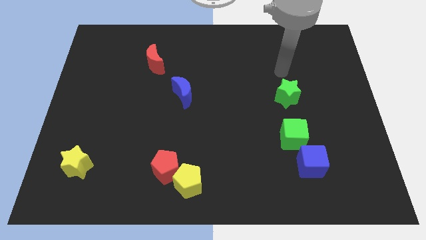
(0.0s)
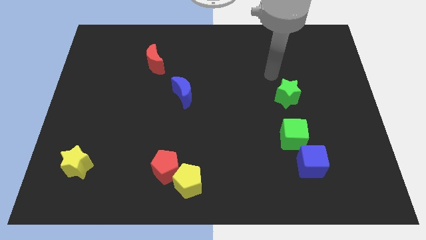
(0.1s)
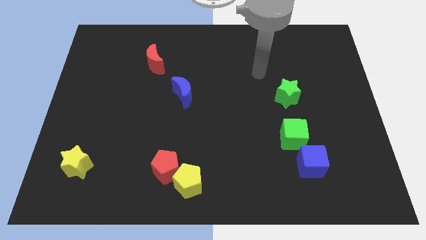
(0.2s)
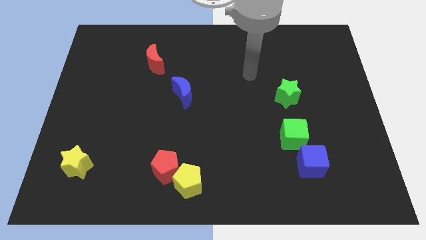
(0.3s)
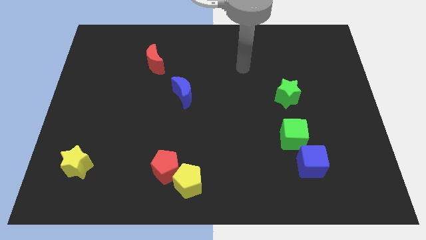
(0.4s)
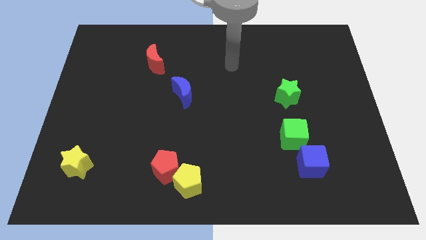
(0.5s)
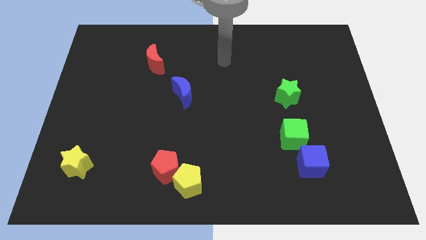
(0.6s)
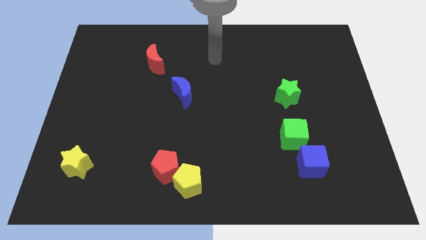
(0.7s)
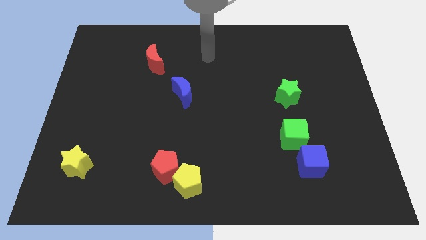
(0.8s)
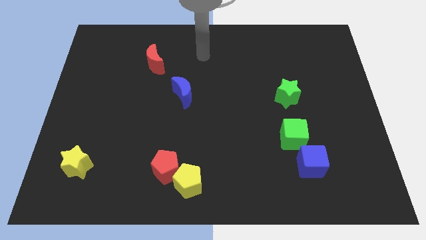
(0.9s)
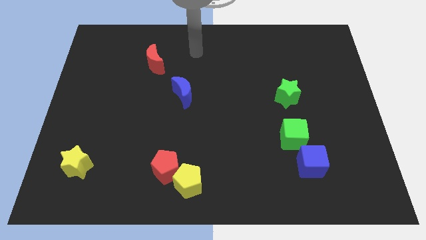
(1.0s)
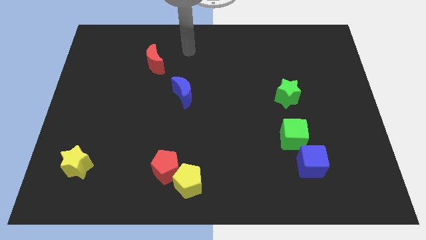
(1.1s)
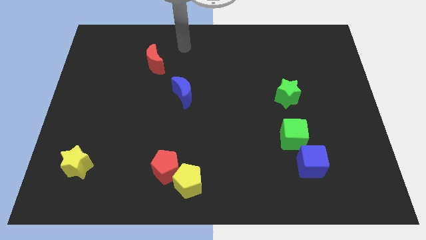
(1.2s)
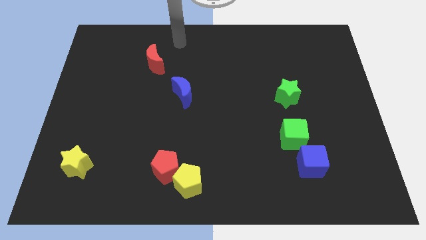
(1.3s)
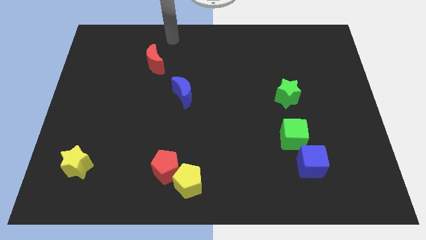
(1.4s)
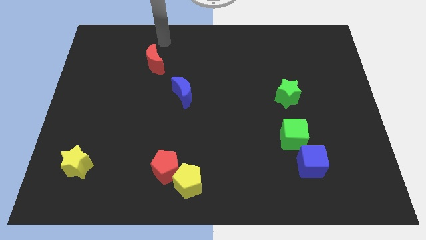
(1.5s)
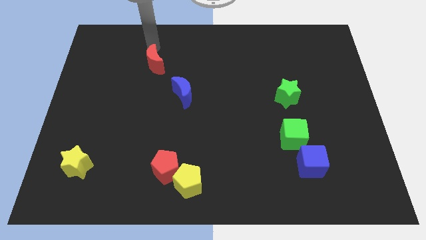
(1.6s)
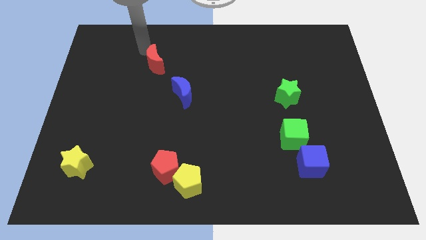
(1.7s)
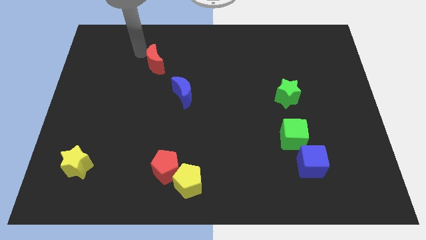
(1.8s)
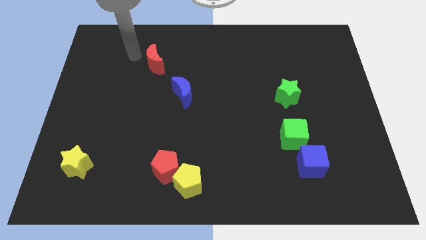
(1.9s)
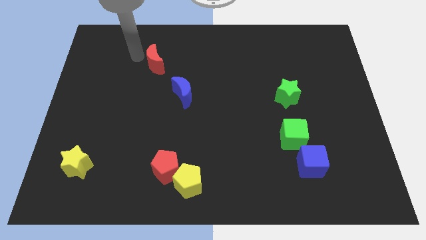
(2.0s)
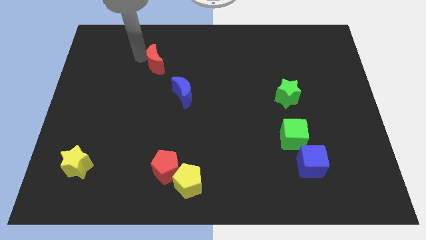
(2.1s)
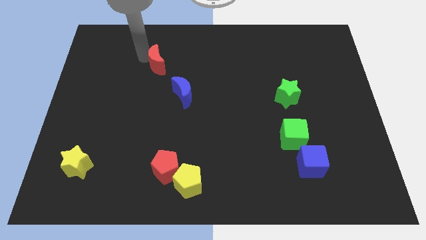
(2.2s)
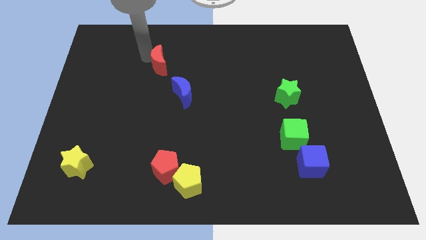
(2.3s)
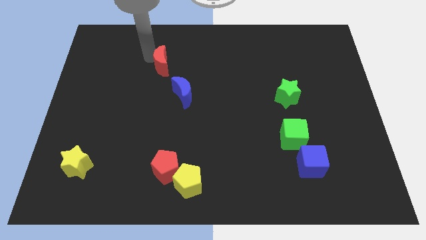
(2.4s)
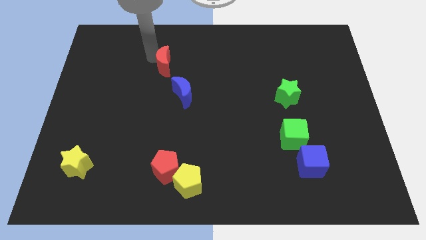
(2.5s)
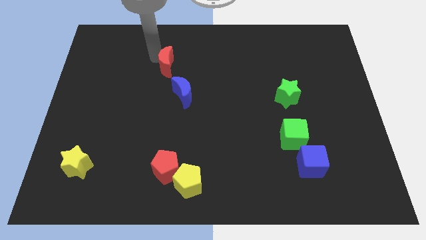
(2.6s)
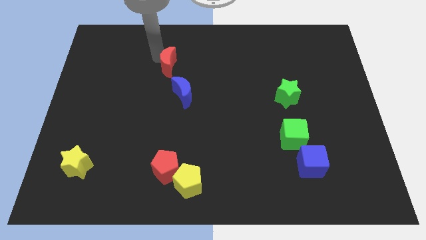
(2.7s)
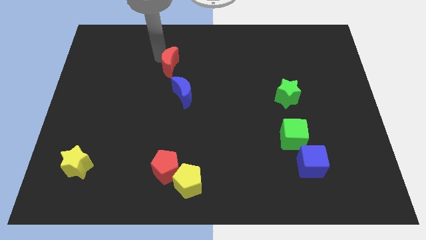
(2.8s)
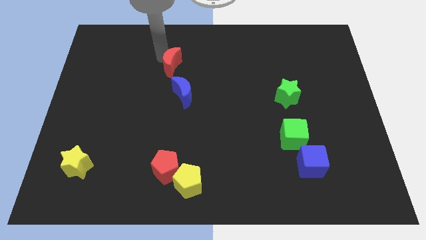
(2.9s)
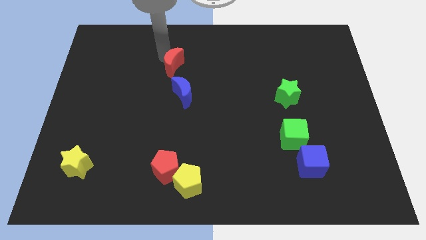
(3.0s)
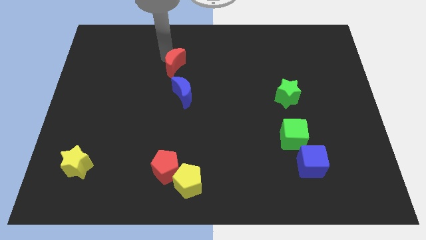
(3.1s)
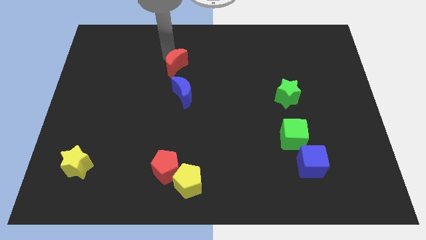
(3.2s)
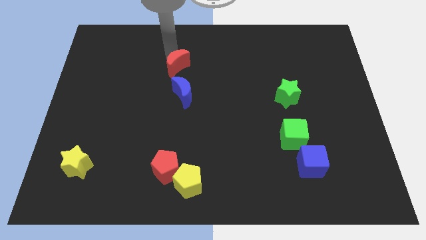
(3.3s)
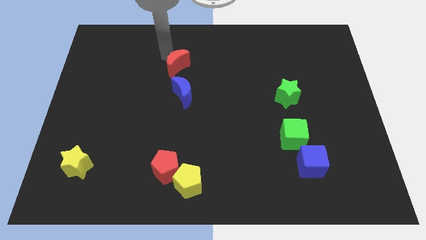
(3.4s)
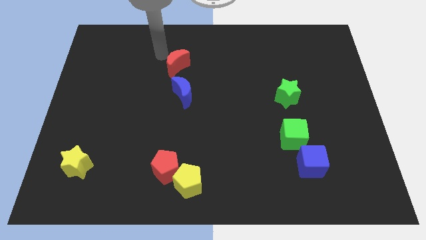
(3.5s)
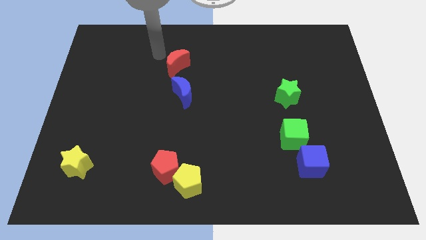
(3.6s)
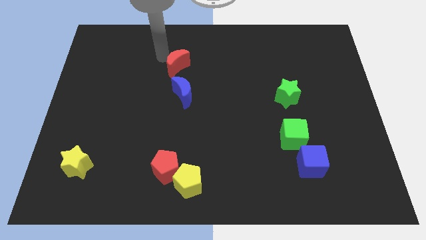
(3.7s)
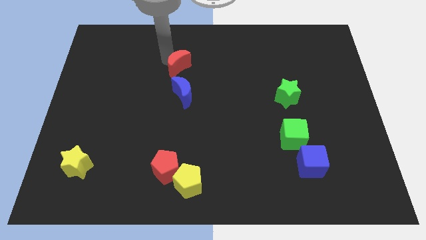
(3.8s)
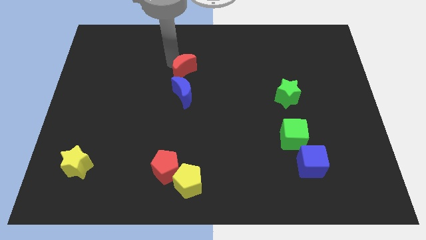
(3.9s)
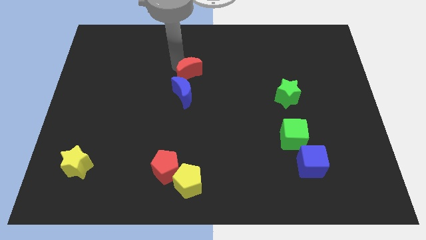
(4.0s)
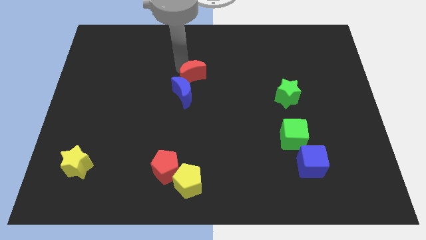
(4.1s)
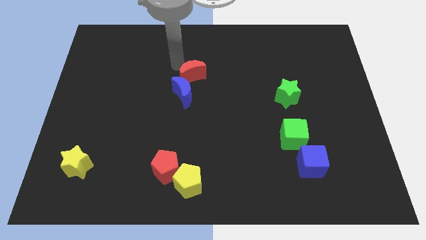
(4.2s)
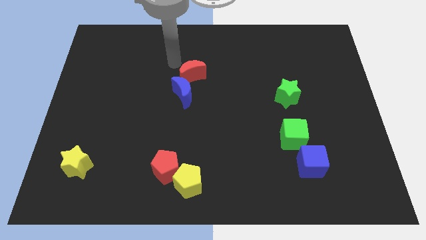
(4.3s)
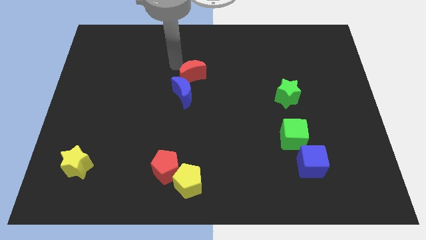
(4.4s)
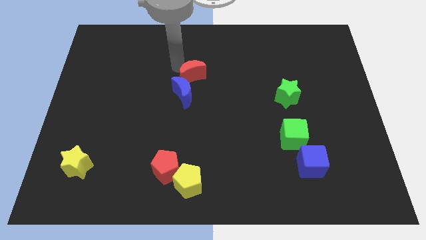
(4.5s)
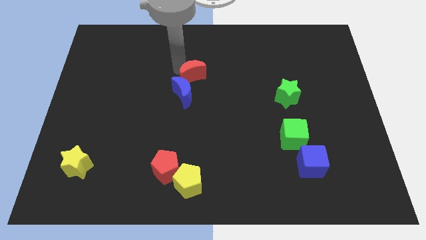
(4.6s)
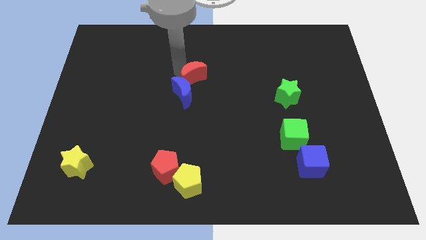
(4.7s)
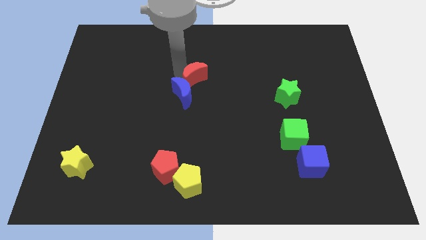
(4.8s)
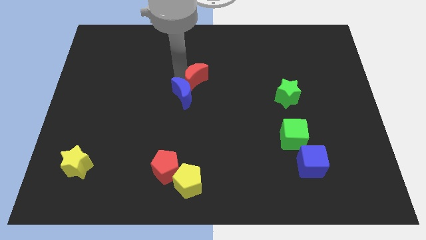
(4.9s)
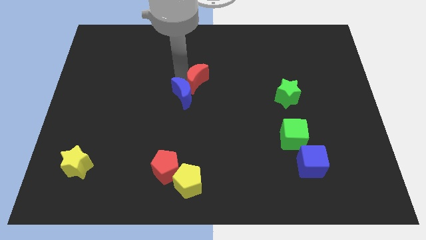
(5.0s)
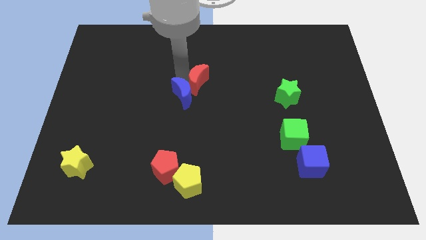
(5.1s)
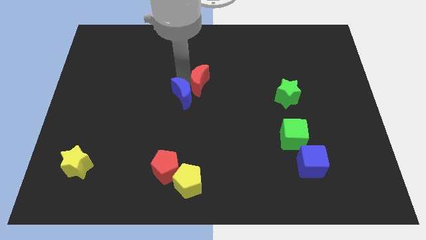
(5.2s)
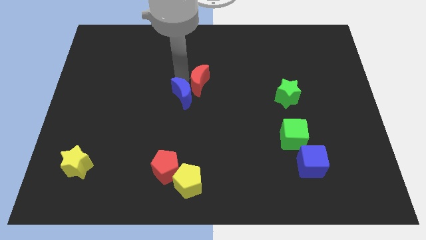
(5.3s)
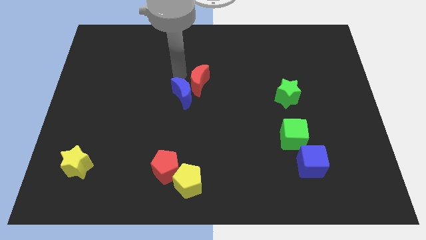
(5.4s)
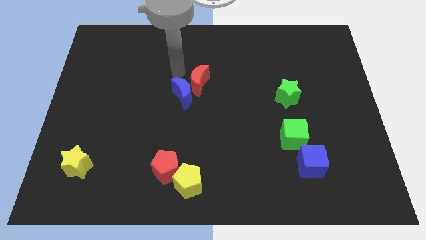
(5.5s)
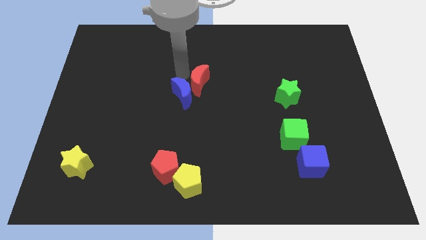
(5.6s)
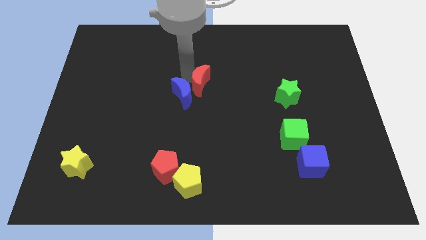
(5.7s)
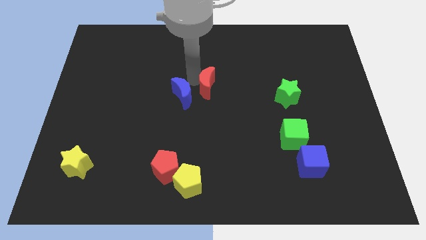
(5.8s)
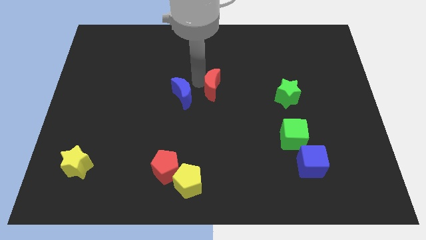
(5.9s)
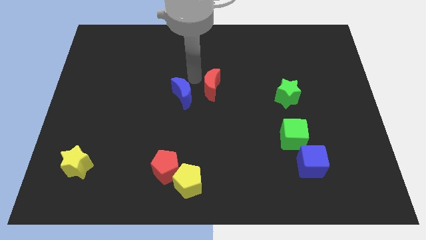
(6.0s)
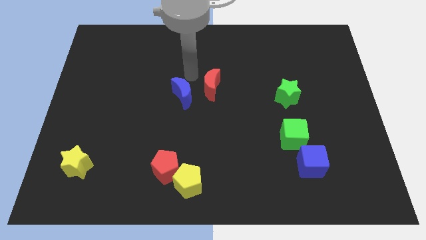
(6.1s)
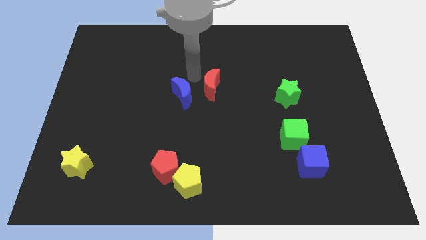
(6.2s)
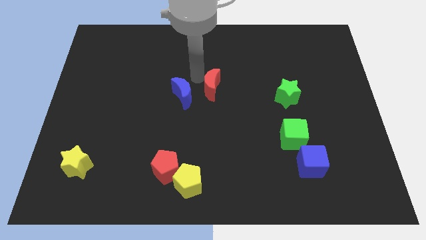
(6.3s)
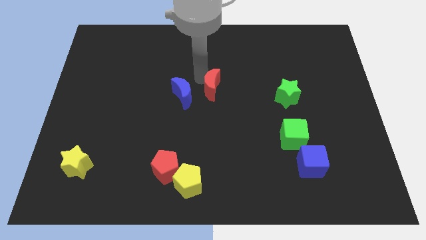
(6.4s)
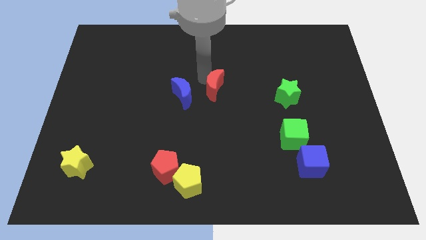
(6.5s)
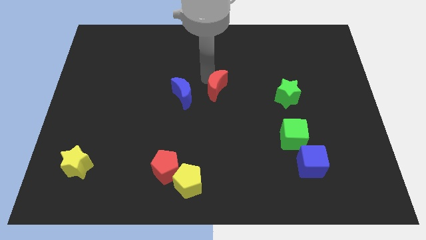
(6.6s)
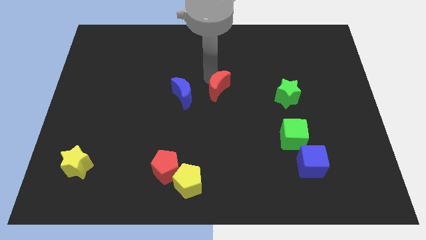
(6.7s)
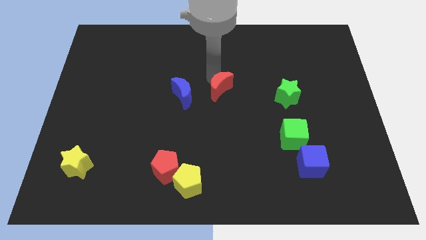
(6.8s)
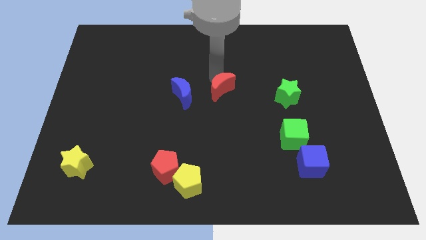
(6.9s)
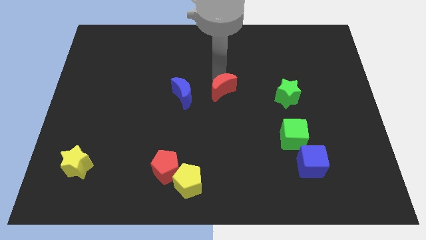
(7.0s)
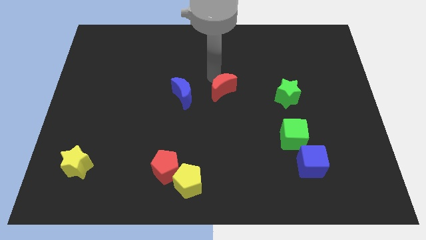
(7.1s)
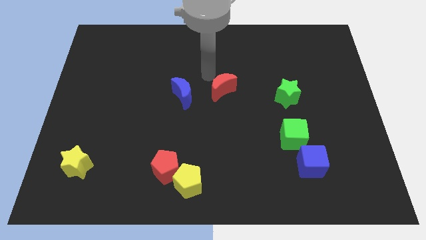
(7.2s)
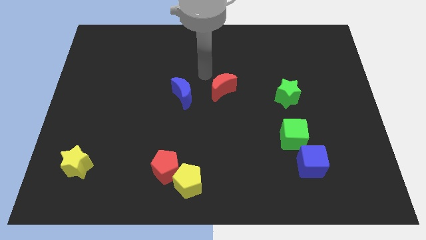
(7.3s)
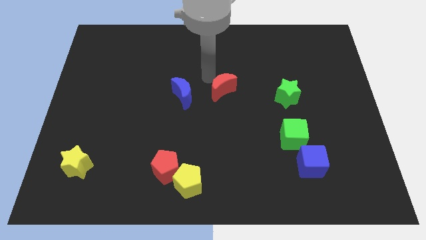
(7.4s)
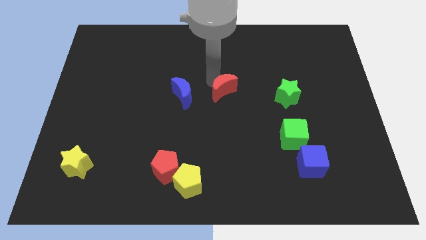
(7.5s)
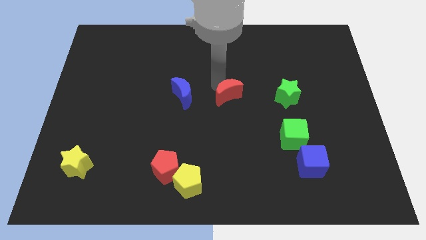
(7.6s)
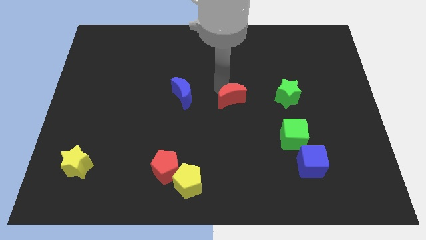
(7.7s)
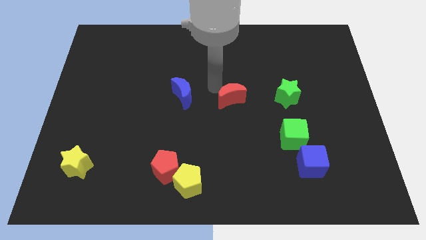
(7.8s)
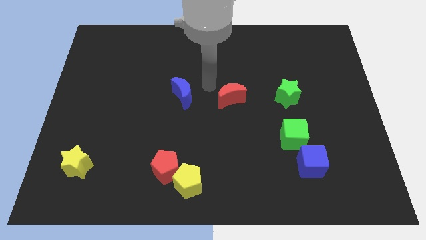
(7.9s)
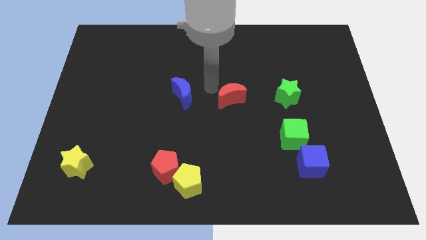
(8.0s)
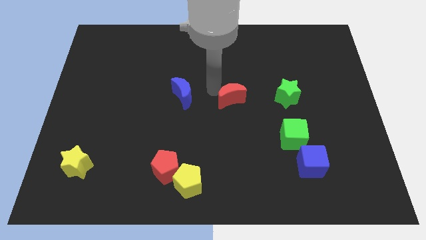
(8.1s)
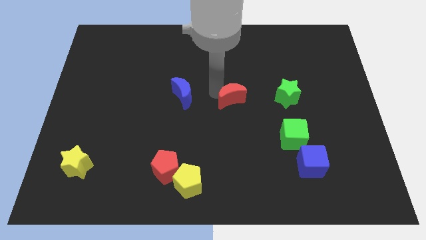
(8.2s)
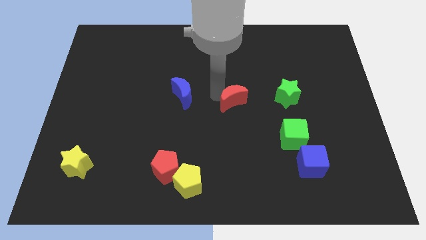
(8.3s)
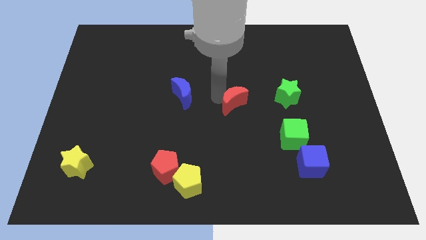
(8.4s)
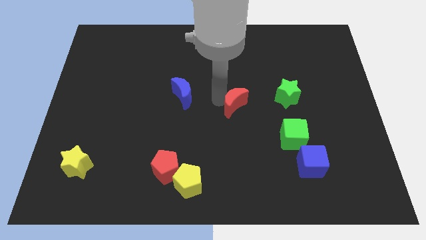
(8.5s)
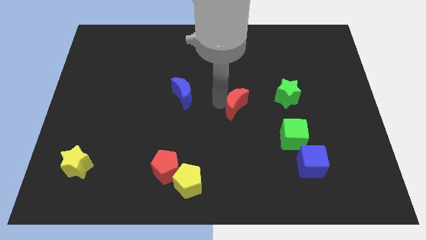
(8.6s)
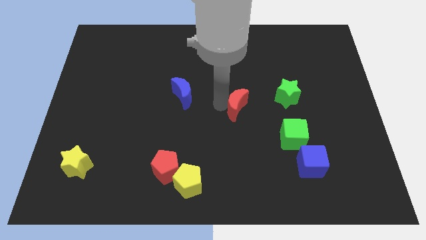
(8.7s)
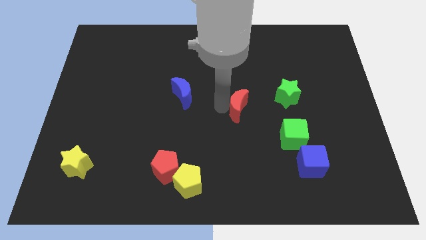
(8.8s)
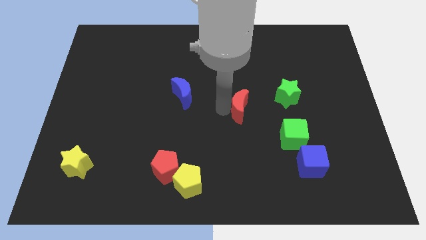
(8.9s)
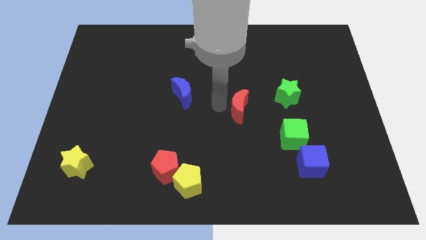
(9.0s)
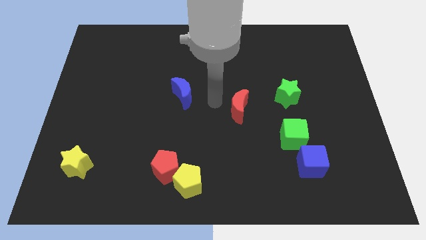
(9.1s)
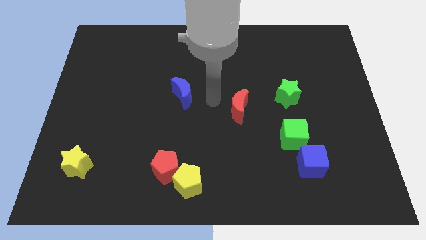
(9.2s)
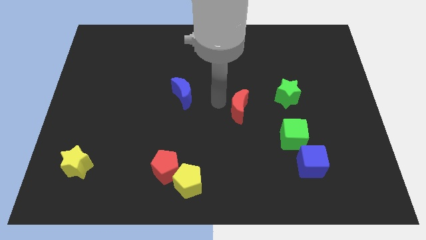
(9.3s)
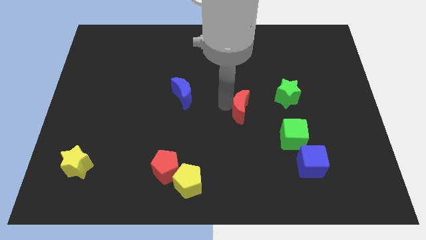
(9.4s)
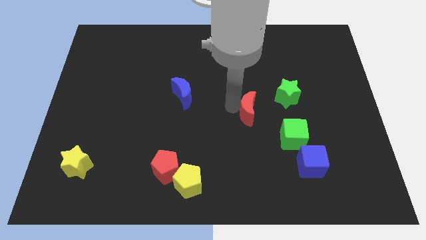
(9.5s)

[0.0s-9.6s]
put the red moon diagonally up and to the left of the green cube
